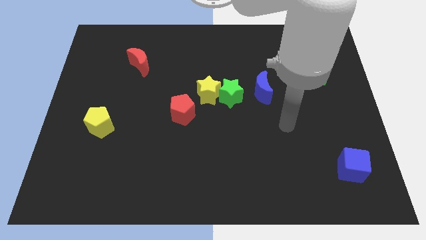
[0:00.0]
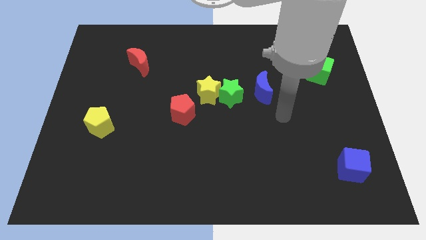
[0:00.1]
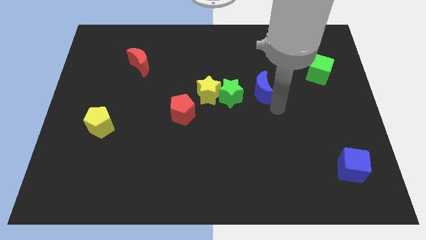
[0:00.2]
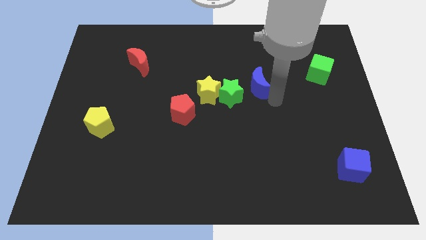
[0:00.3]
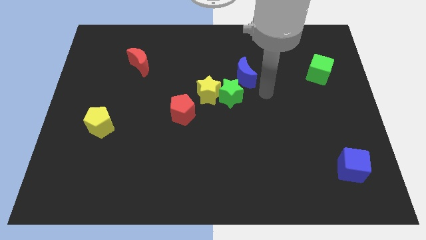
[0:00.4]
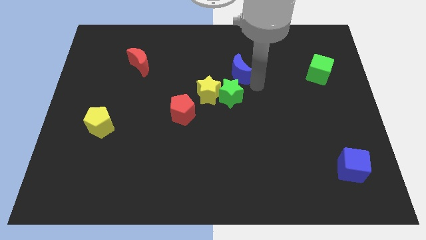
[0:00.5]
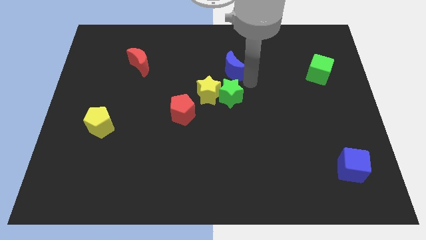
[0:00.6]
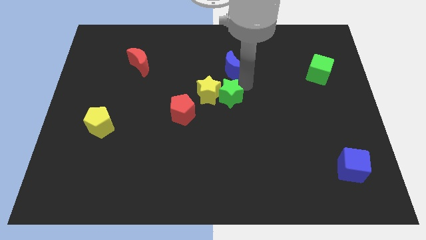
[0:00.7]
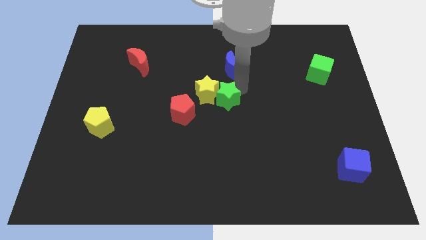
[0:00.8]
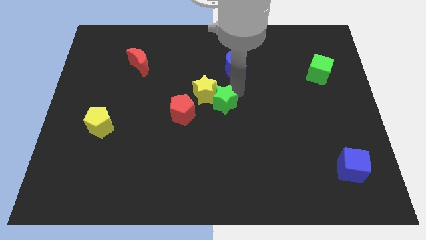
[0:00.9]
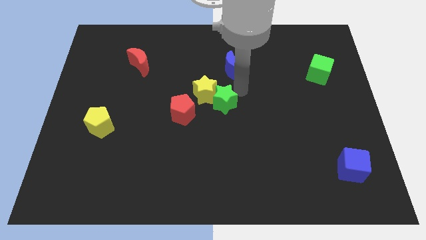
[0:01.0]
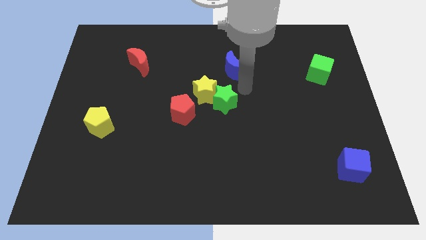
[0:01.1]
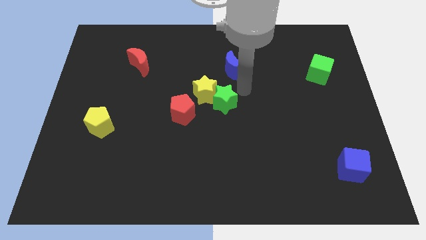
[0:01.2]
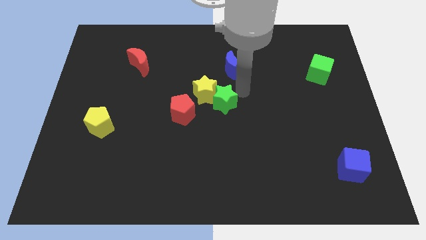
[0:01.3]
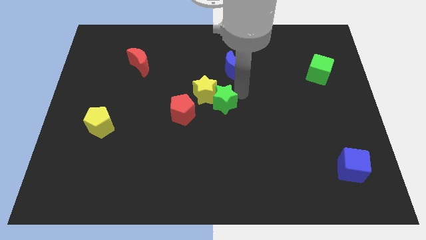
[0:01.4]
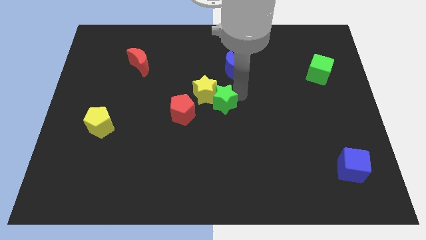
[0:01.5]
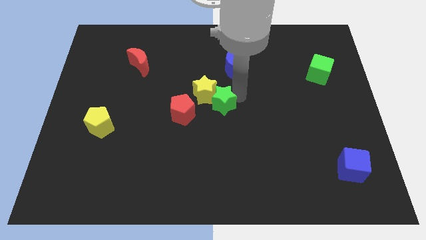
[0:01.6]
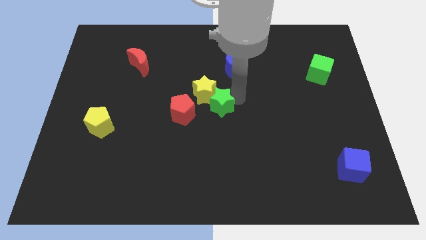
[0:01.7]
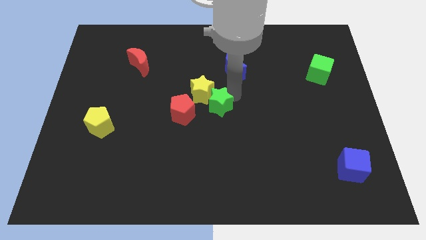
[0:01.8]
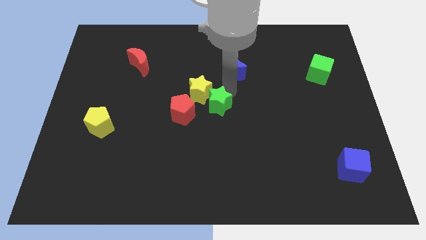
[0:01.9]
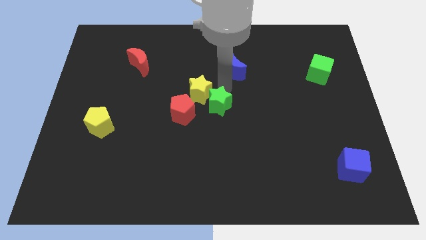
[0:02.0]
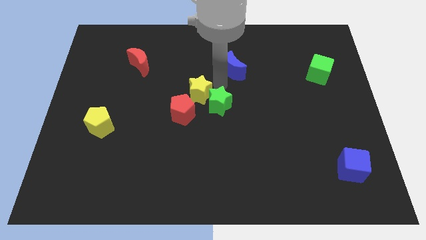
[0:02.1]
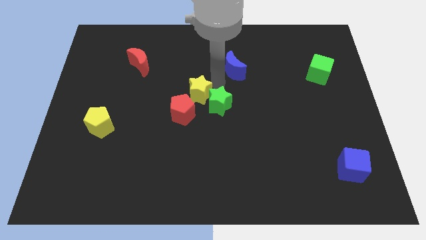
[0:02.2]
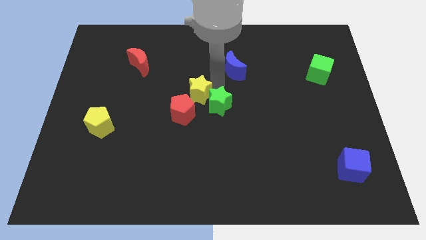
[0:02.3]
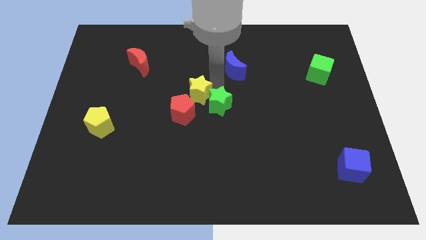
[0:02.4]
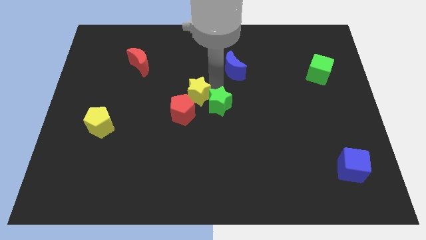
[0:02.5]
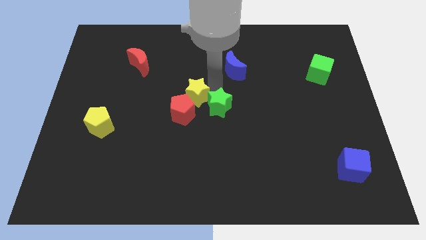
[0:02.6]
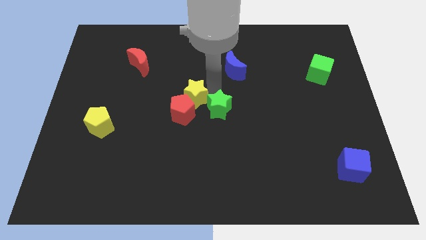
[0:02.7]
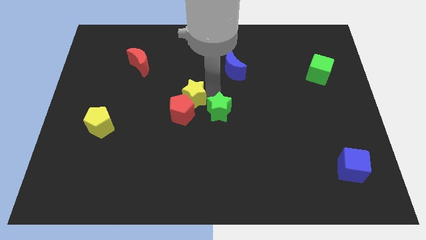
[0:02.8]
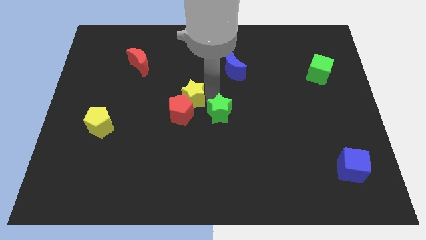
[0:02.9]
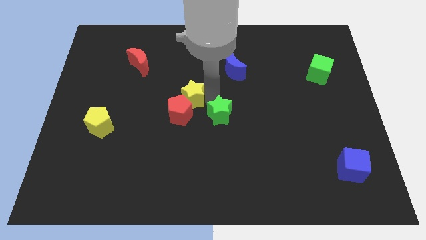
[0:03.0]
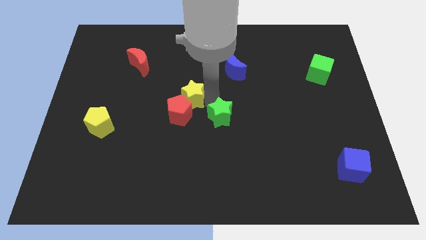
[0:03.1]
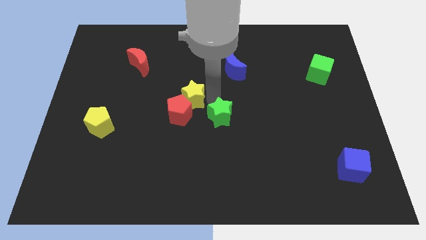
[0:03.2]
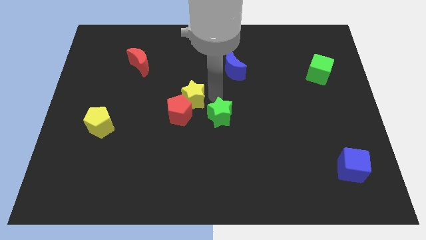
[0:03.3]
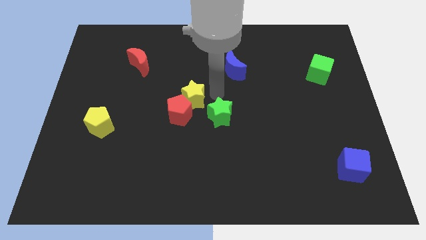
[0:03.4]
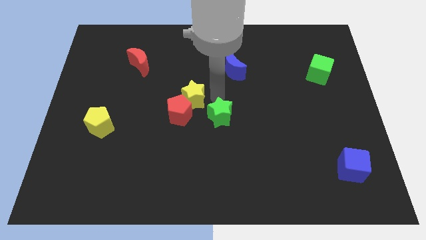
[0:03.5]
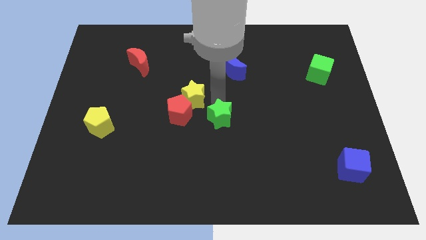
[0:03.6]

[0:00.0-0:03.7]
pull the green star apart from the yellow star and blue moon

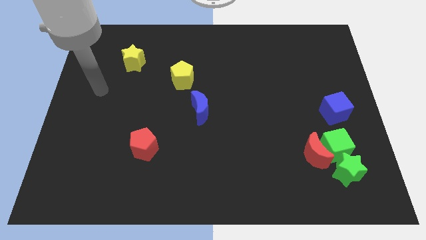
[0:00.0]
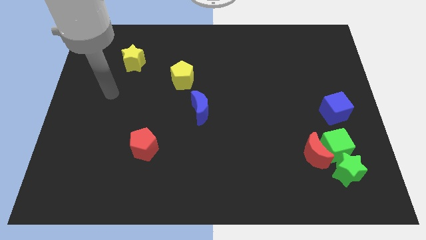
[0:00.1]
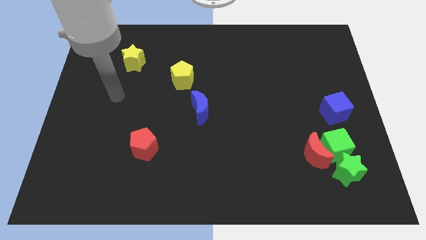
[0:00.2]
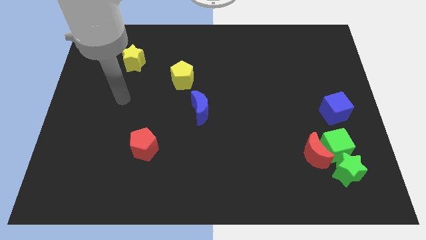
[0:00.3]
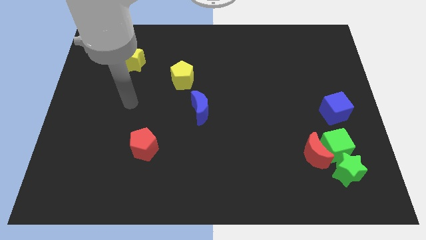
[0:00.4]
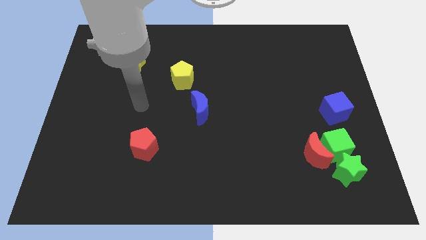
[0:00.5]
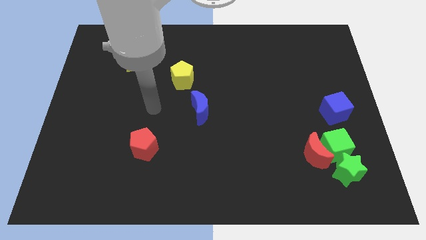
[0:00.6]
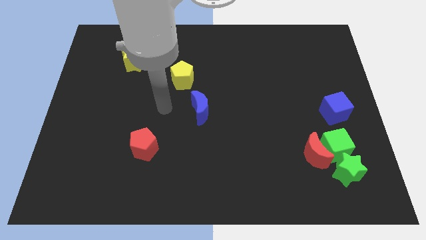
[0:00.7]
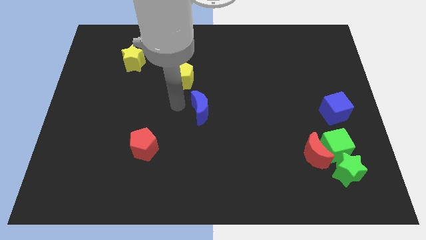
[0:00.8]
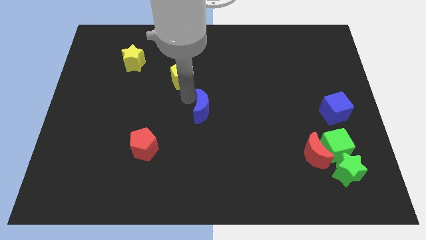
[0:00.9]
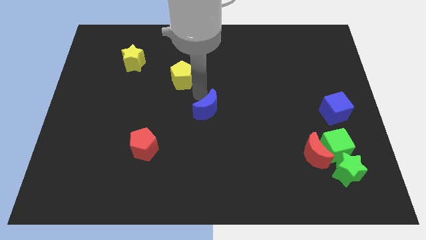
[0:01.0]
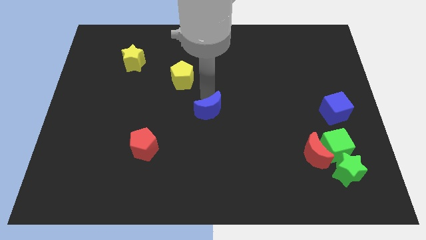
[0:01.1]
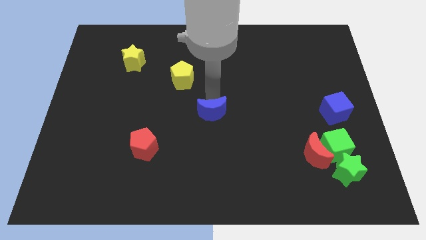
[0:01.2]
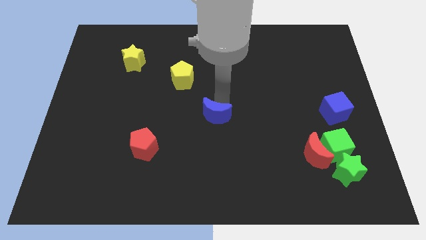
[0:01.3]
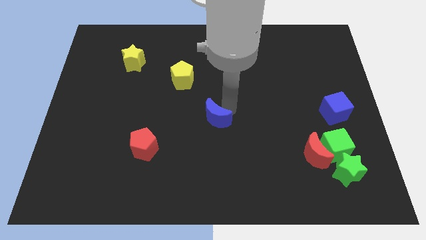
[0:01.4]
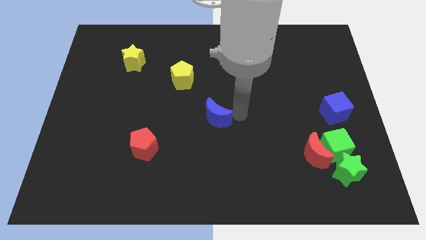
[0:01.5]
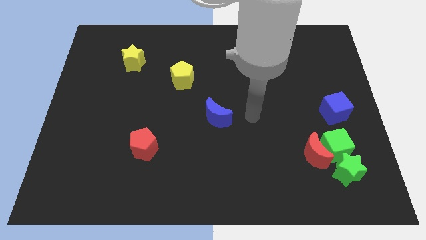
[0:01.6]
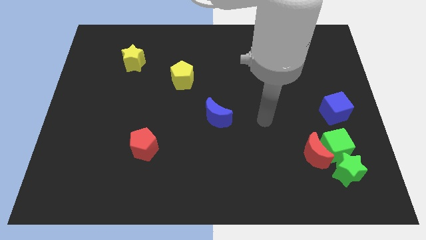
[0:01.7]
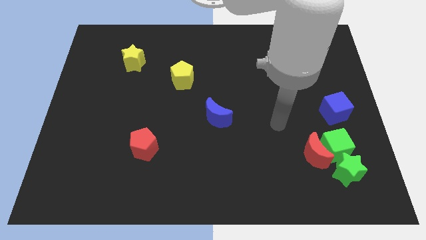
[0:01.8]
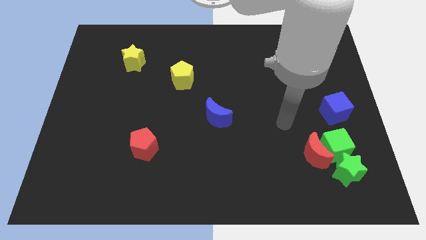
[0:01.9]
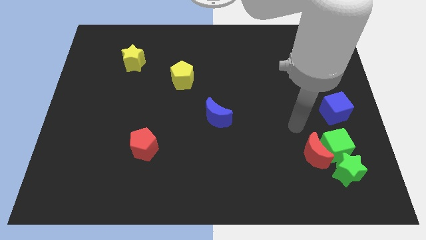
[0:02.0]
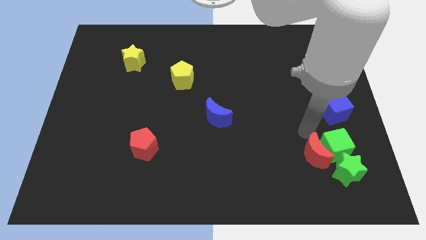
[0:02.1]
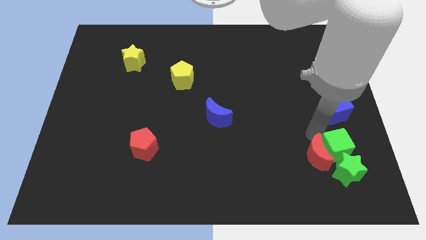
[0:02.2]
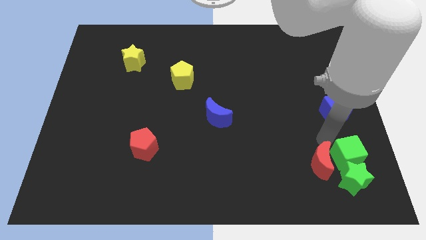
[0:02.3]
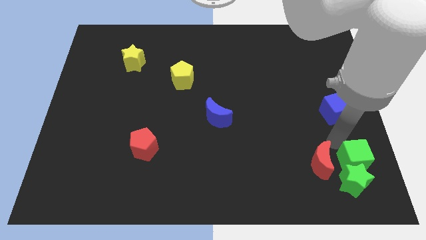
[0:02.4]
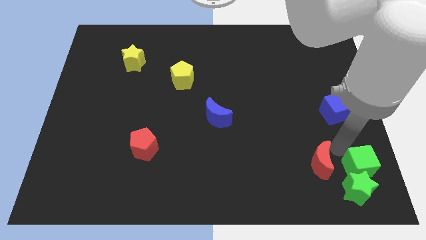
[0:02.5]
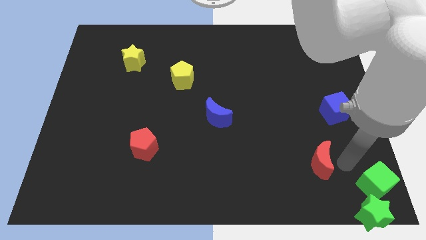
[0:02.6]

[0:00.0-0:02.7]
pull the red moon apart from the green cube and green star

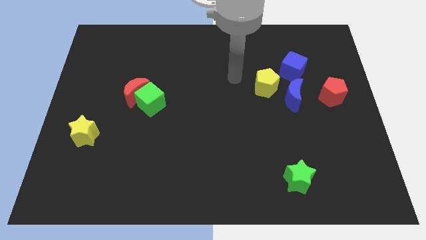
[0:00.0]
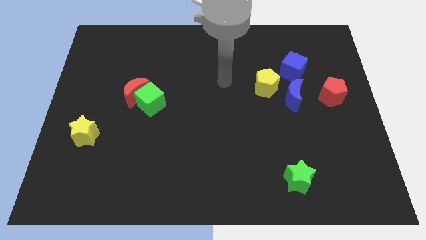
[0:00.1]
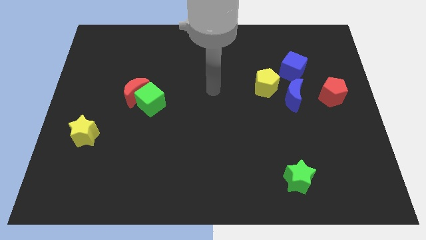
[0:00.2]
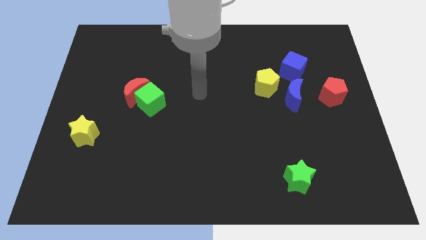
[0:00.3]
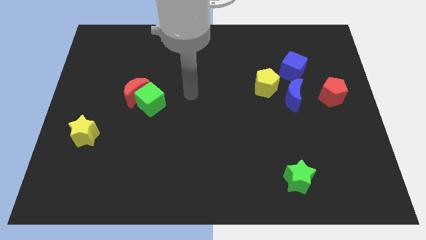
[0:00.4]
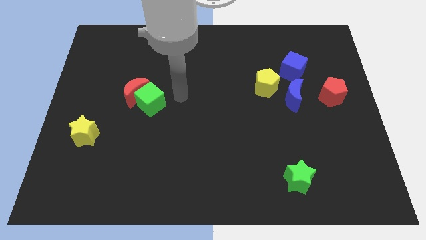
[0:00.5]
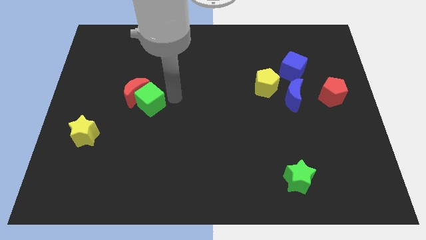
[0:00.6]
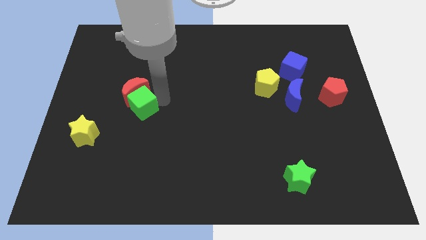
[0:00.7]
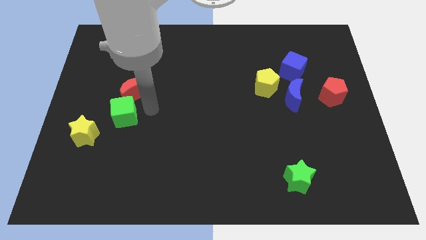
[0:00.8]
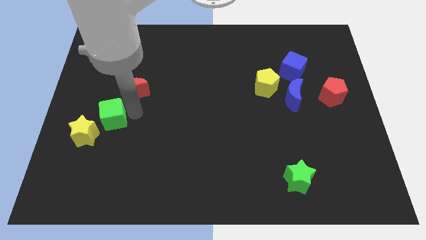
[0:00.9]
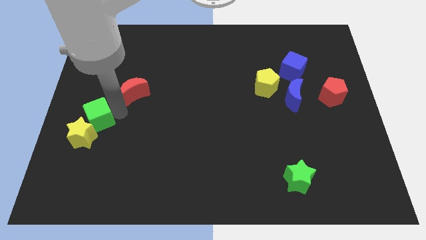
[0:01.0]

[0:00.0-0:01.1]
pull the red moon apart from the green cube

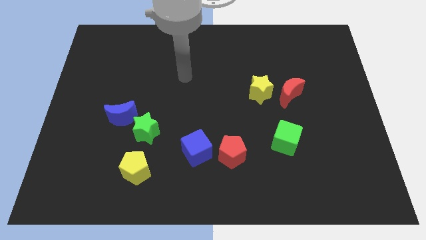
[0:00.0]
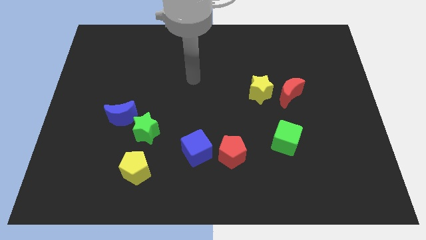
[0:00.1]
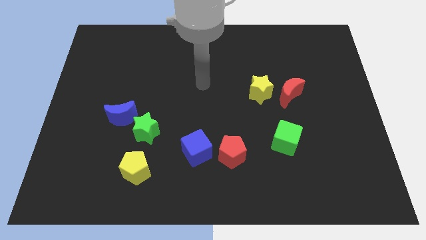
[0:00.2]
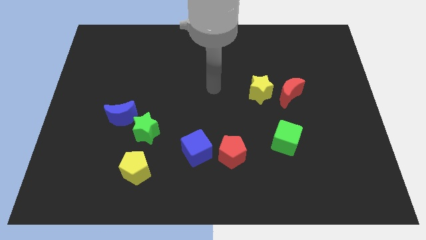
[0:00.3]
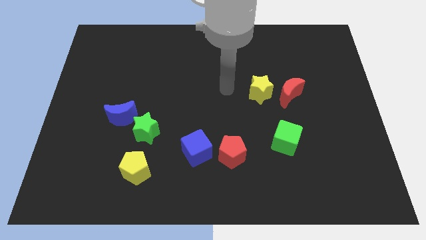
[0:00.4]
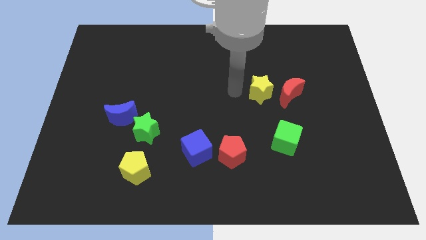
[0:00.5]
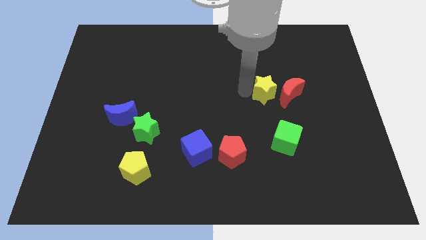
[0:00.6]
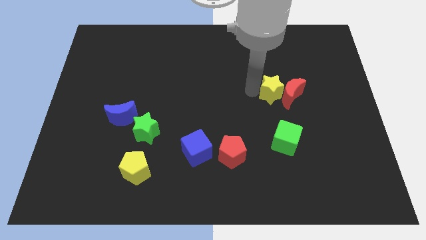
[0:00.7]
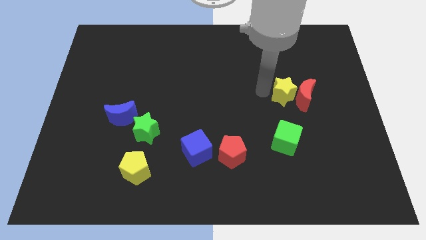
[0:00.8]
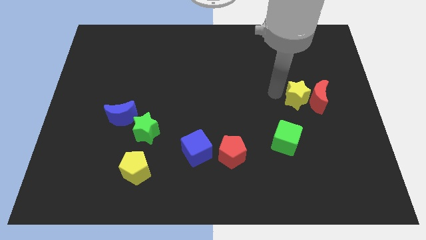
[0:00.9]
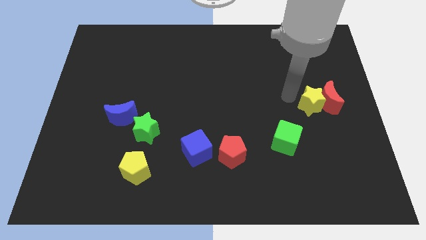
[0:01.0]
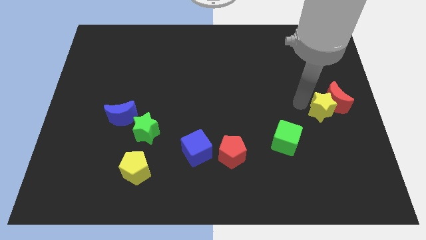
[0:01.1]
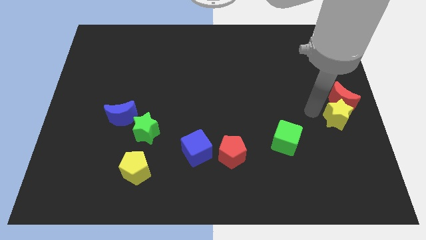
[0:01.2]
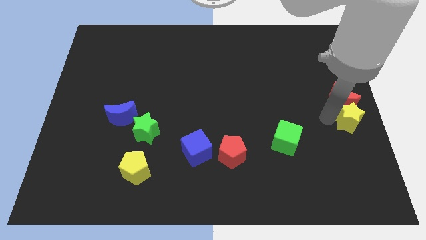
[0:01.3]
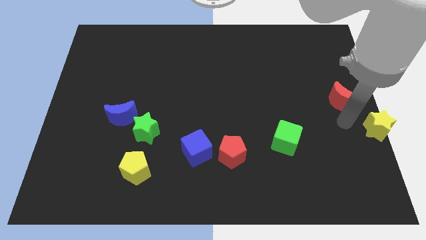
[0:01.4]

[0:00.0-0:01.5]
move the red moon away from the yellow star

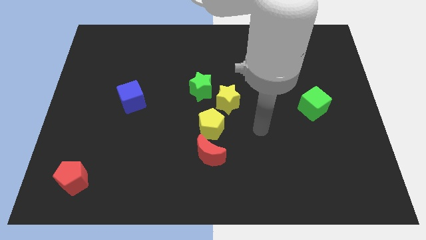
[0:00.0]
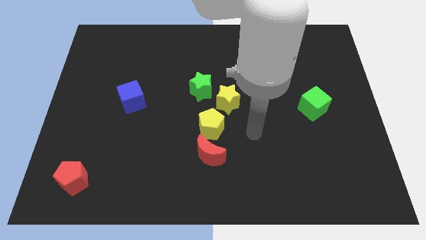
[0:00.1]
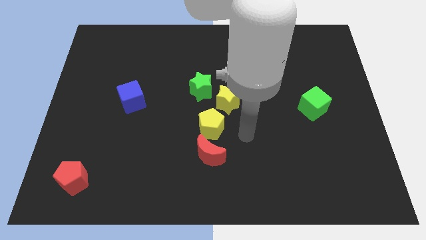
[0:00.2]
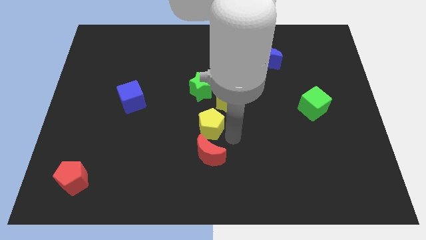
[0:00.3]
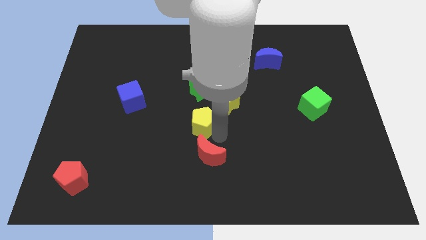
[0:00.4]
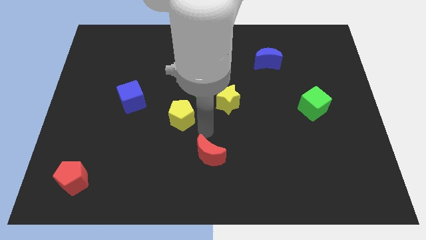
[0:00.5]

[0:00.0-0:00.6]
separate the red moon from the yellow pentagon
